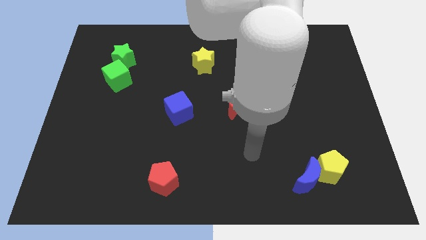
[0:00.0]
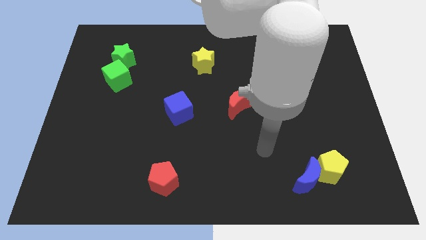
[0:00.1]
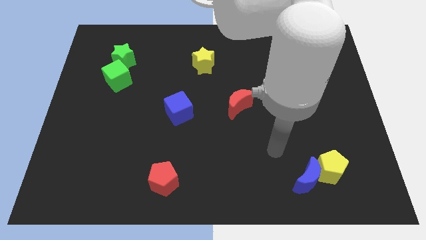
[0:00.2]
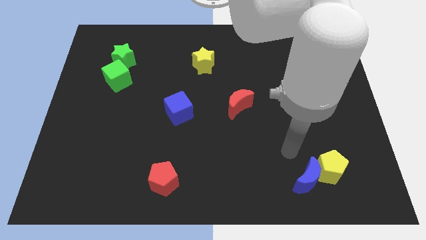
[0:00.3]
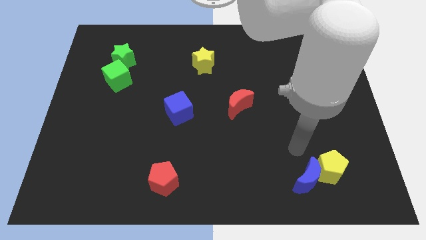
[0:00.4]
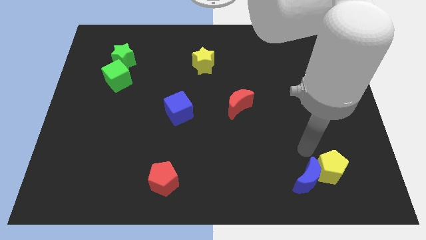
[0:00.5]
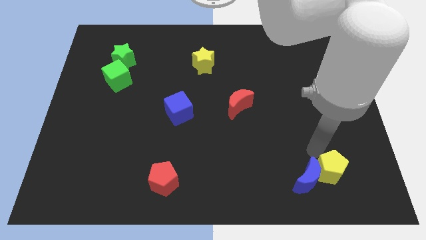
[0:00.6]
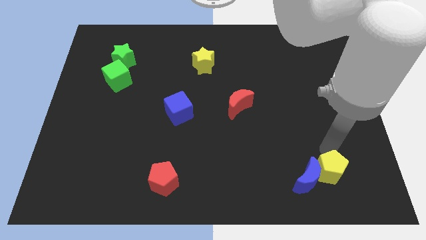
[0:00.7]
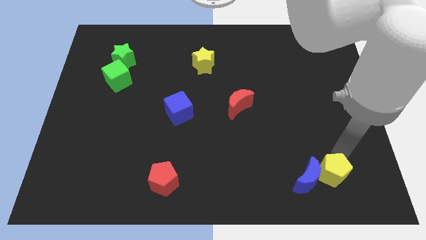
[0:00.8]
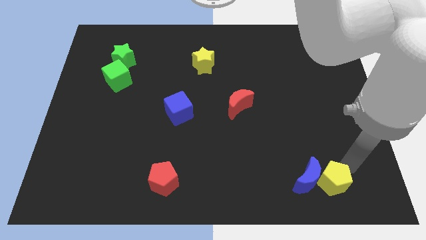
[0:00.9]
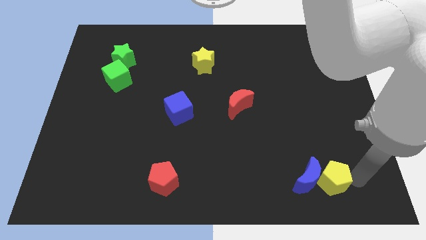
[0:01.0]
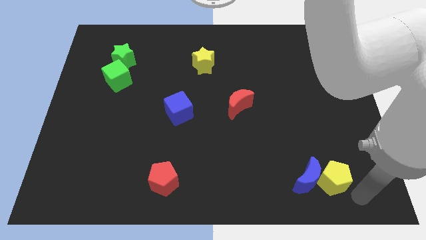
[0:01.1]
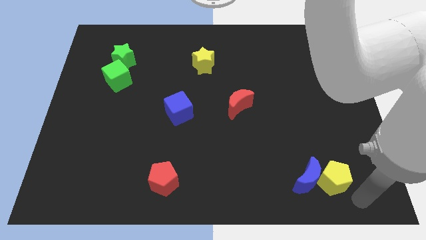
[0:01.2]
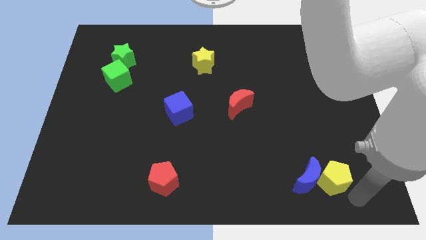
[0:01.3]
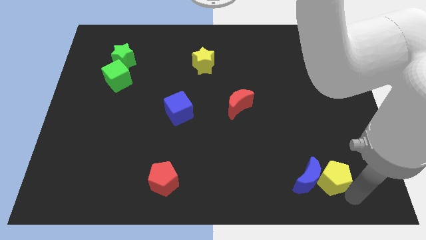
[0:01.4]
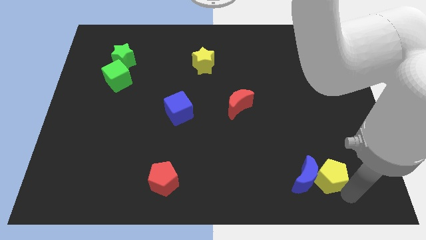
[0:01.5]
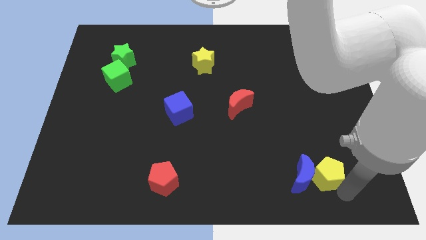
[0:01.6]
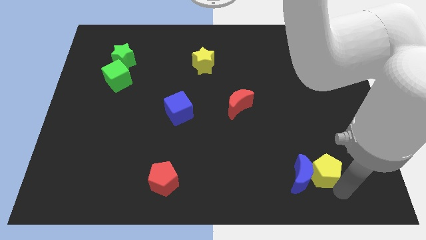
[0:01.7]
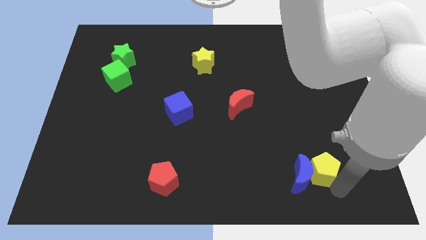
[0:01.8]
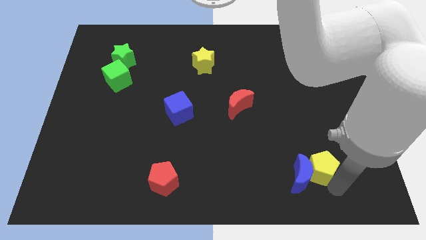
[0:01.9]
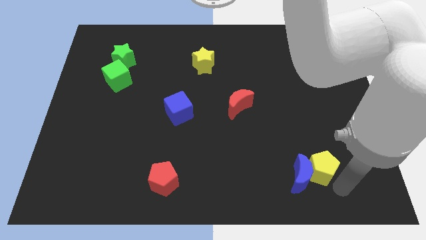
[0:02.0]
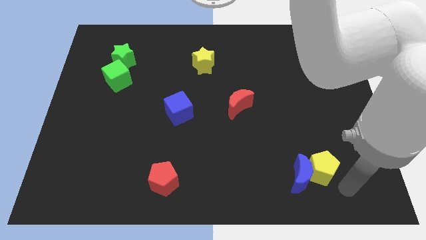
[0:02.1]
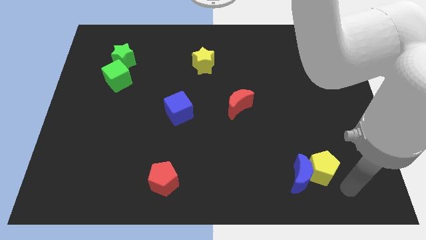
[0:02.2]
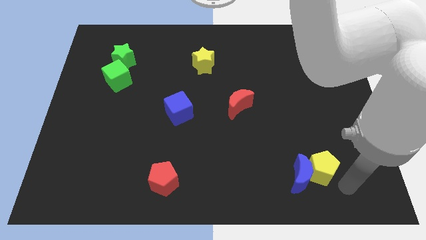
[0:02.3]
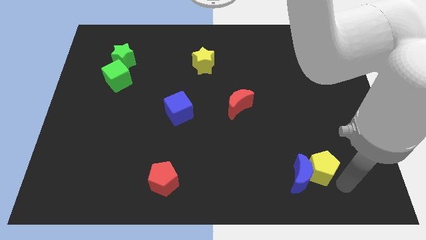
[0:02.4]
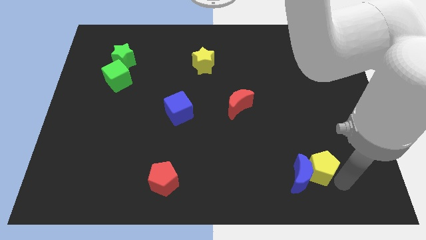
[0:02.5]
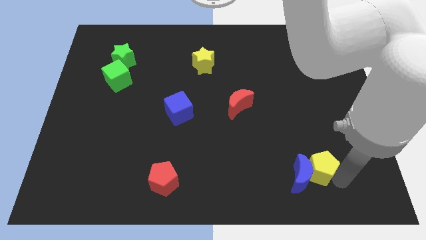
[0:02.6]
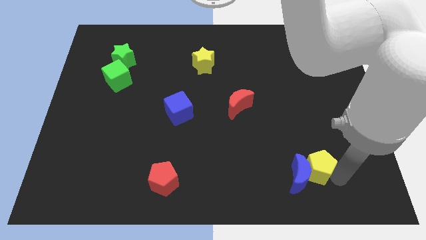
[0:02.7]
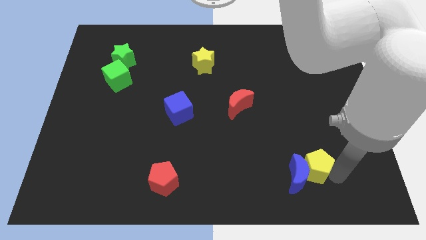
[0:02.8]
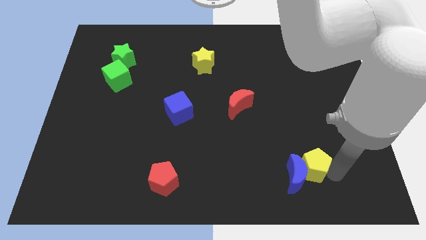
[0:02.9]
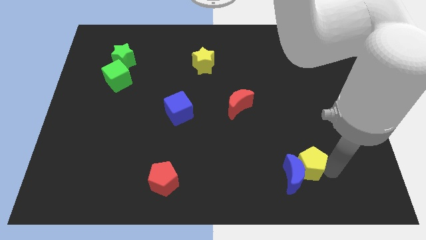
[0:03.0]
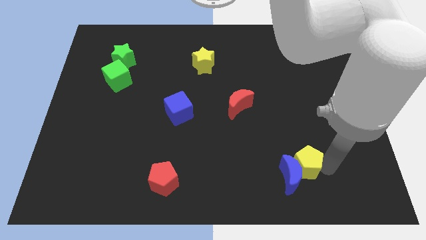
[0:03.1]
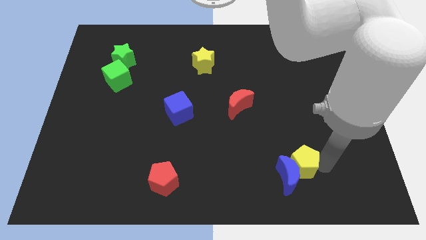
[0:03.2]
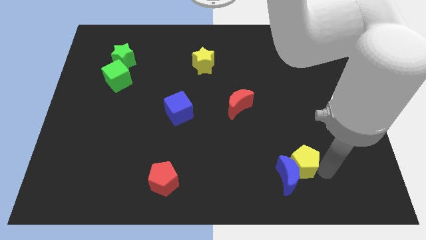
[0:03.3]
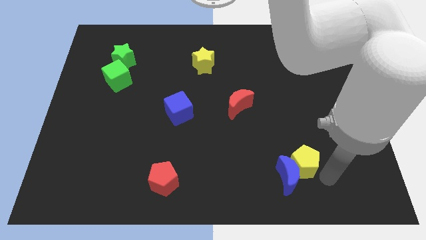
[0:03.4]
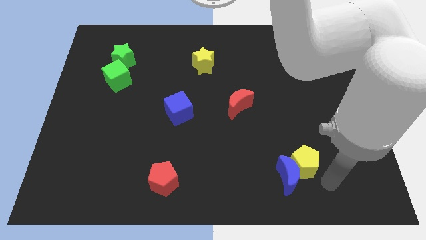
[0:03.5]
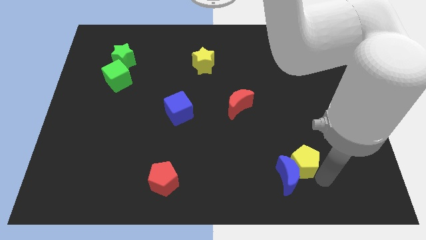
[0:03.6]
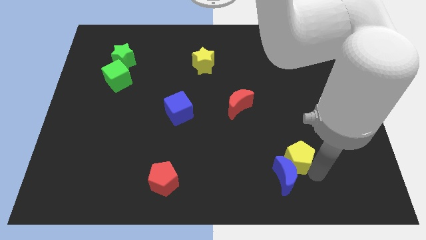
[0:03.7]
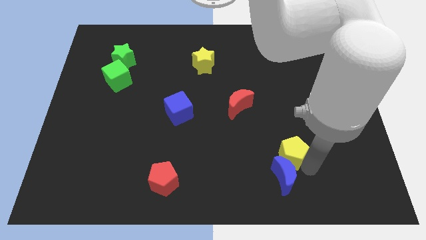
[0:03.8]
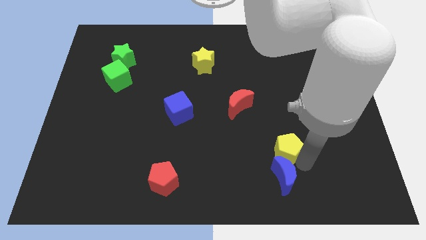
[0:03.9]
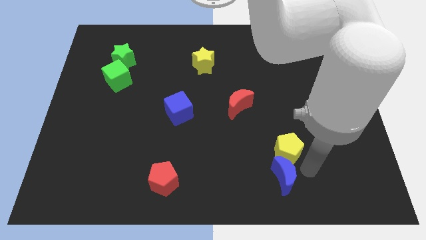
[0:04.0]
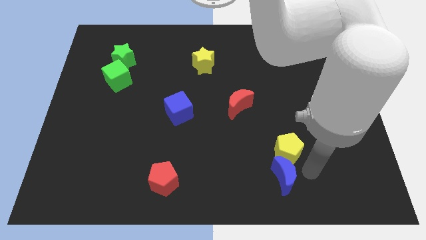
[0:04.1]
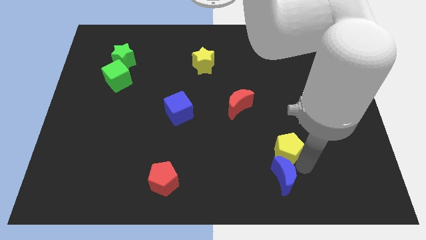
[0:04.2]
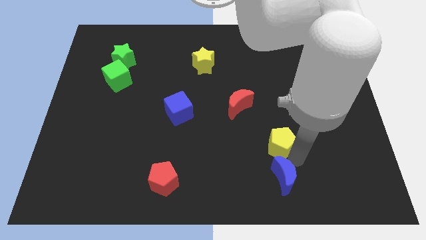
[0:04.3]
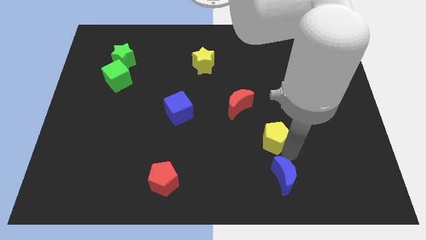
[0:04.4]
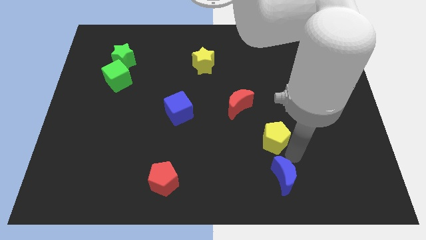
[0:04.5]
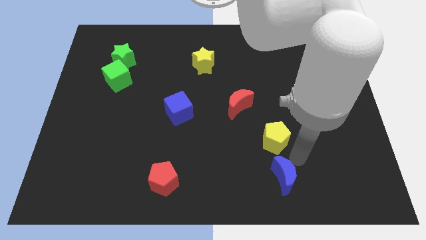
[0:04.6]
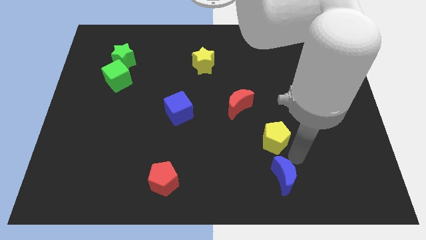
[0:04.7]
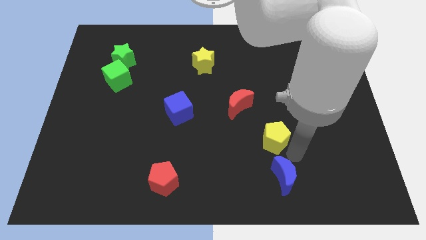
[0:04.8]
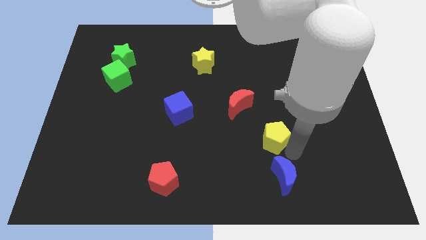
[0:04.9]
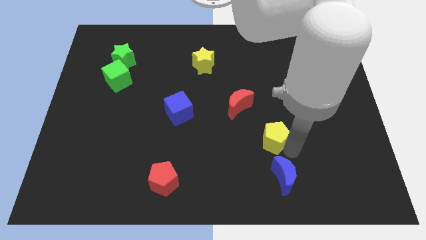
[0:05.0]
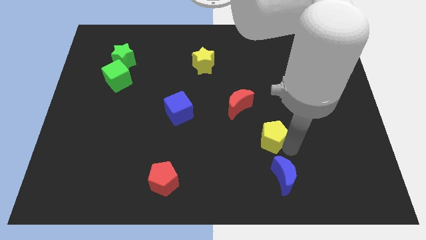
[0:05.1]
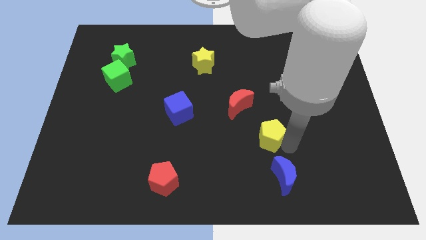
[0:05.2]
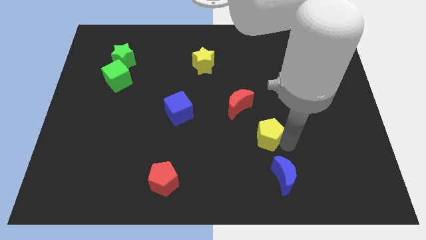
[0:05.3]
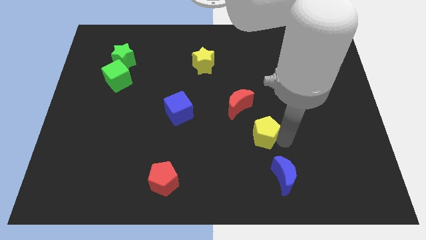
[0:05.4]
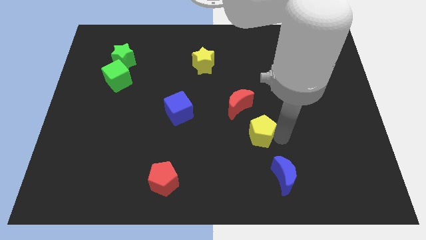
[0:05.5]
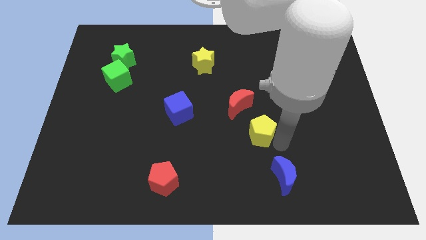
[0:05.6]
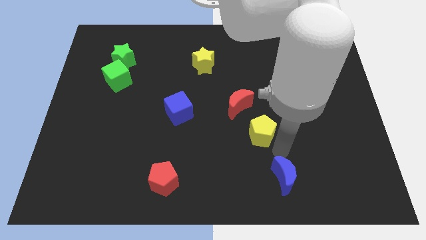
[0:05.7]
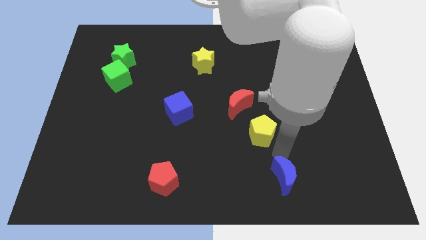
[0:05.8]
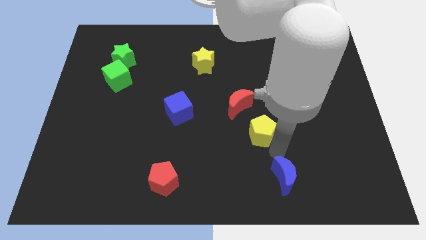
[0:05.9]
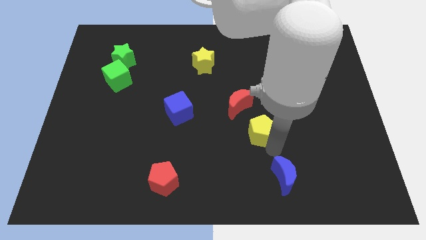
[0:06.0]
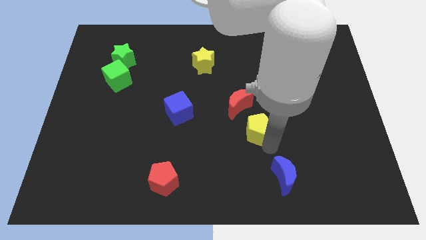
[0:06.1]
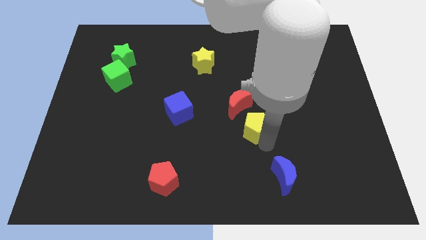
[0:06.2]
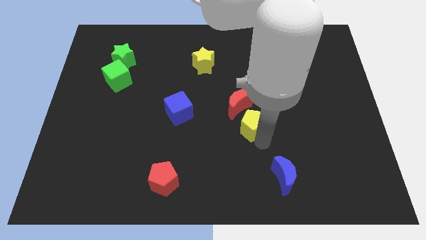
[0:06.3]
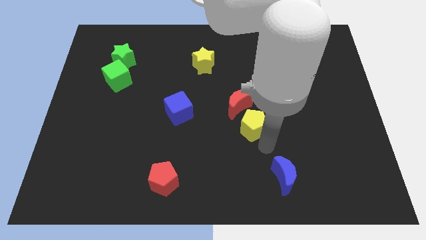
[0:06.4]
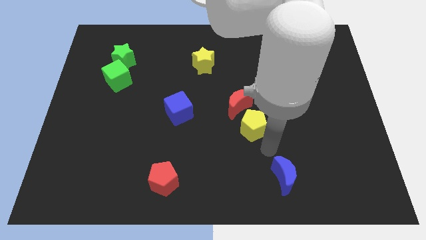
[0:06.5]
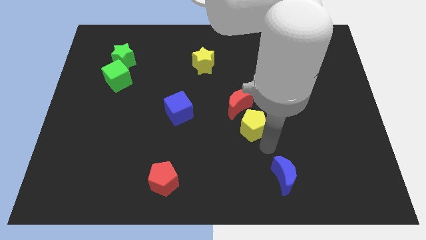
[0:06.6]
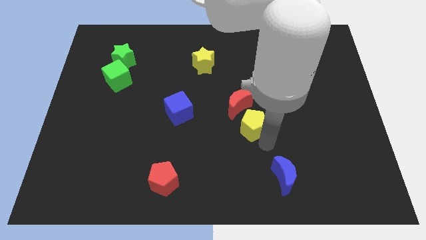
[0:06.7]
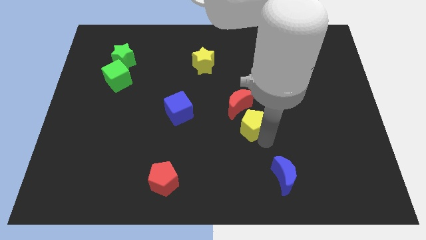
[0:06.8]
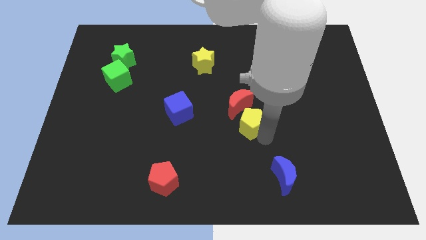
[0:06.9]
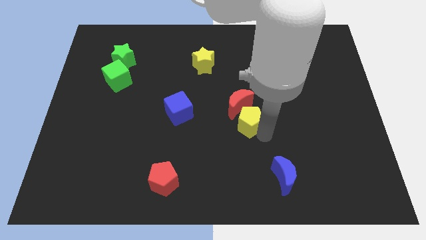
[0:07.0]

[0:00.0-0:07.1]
slide the yellow pentagon close to the red moon
